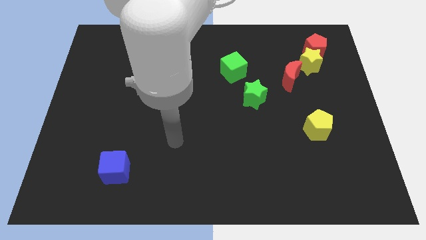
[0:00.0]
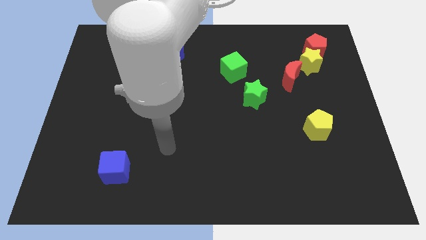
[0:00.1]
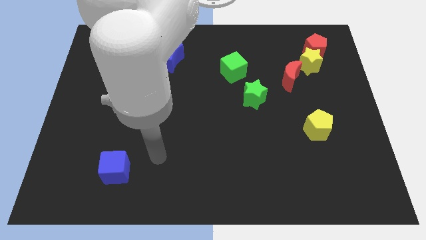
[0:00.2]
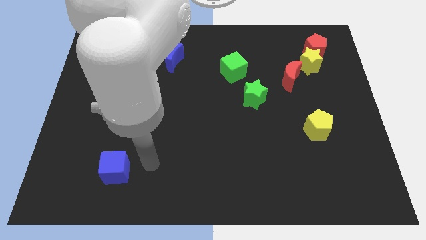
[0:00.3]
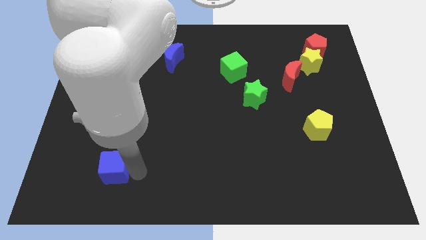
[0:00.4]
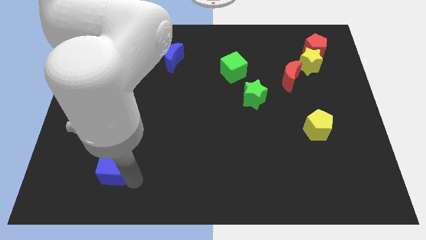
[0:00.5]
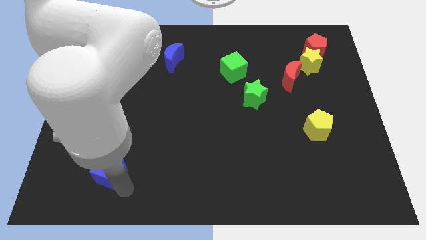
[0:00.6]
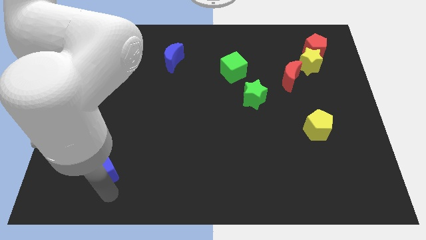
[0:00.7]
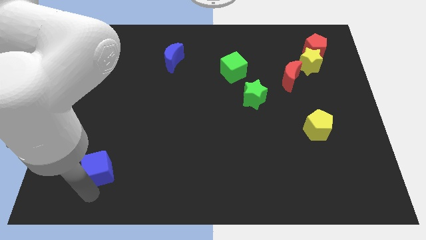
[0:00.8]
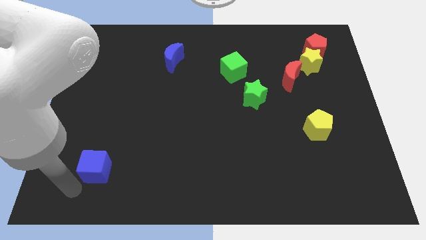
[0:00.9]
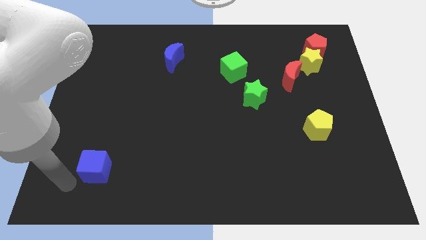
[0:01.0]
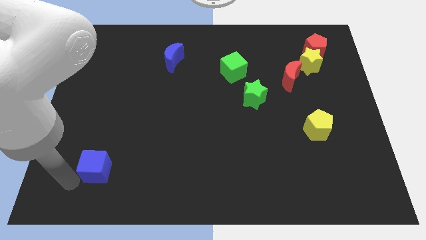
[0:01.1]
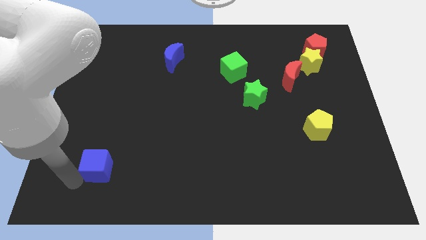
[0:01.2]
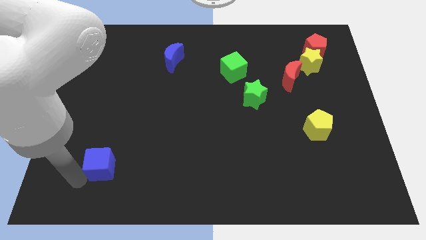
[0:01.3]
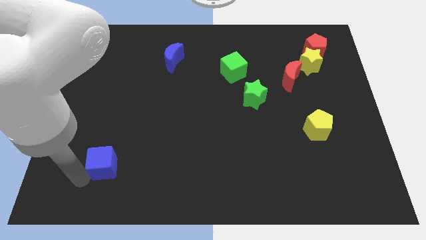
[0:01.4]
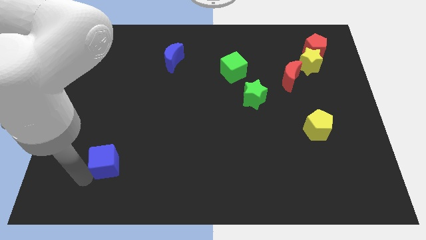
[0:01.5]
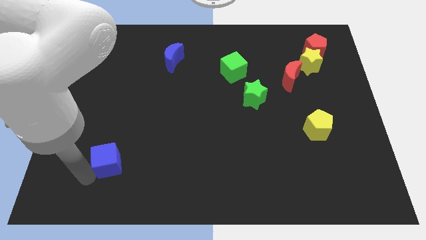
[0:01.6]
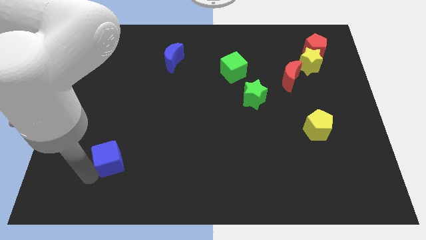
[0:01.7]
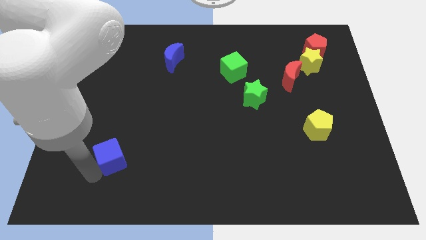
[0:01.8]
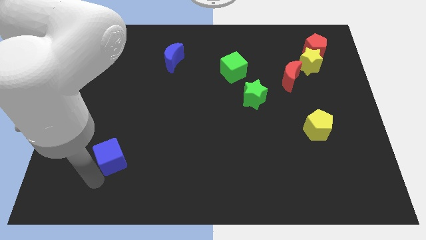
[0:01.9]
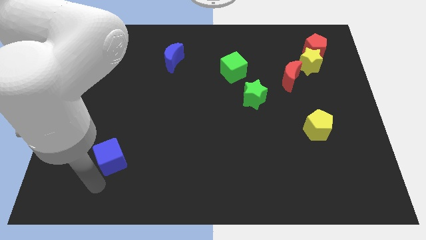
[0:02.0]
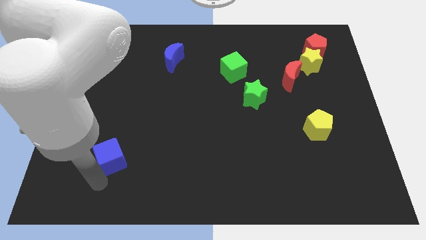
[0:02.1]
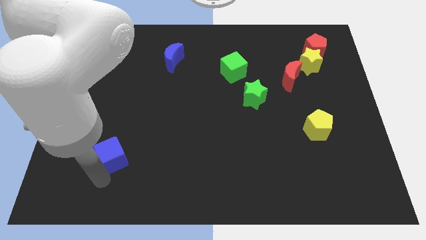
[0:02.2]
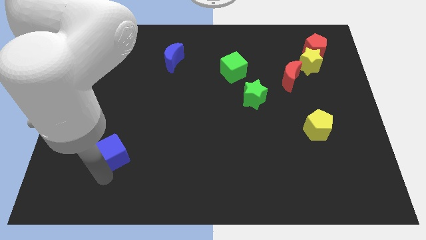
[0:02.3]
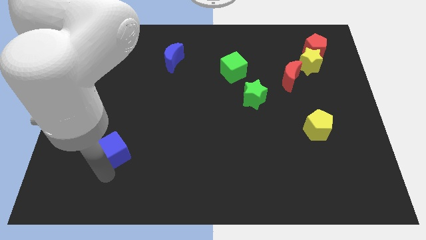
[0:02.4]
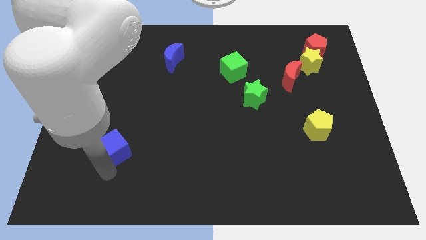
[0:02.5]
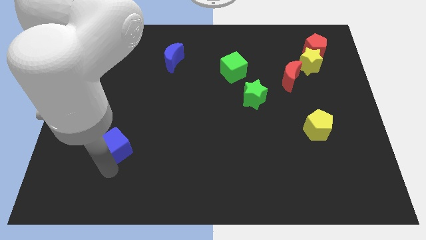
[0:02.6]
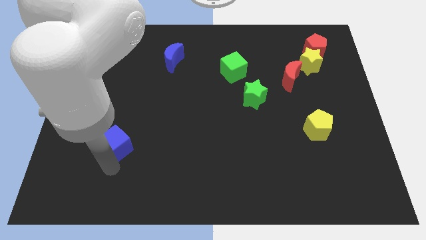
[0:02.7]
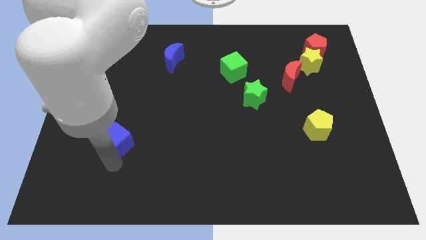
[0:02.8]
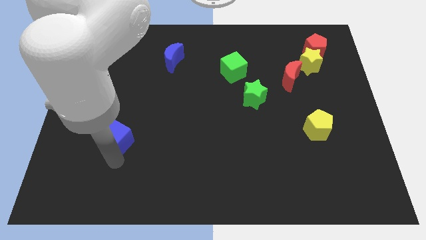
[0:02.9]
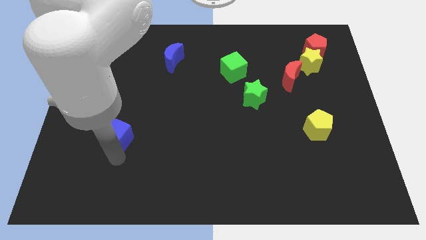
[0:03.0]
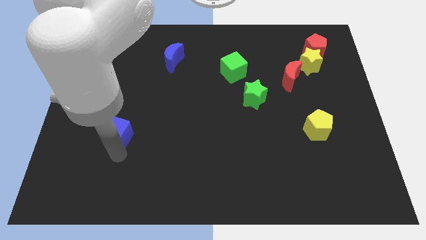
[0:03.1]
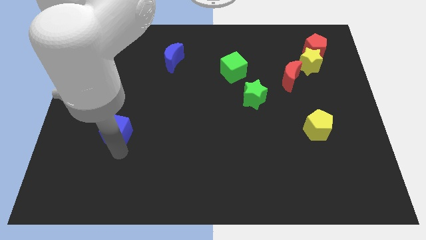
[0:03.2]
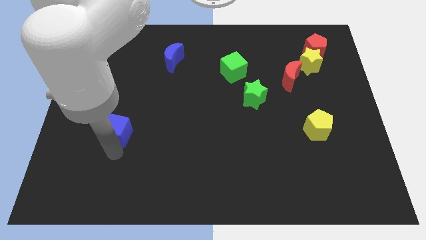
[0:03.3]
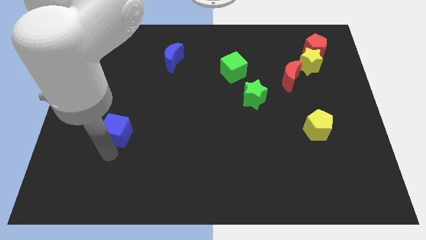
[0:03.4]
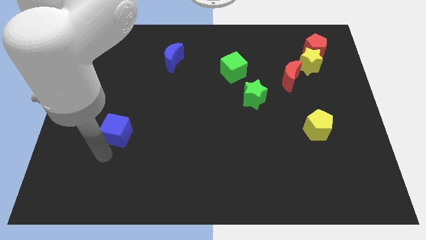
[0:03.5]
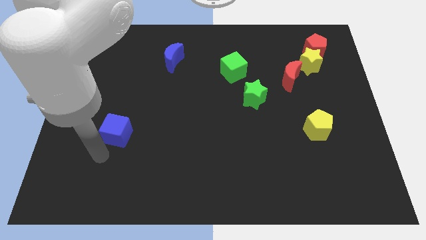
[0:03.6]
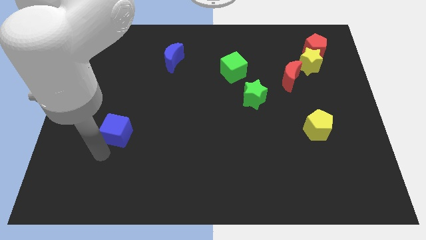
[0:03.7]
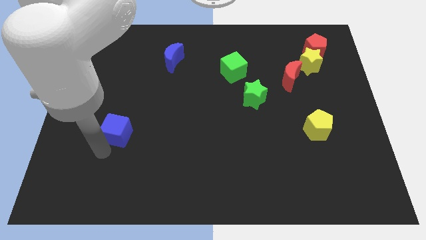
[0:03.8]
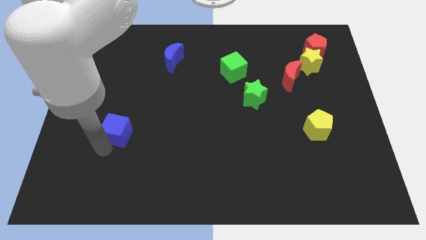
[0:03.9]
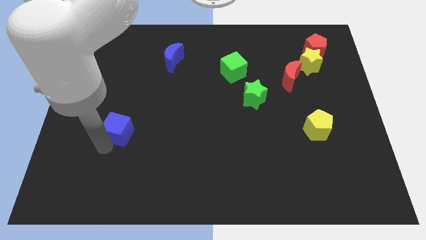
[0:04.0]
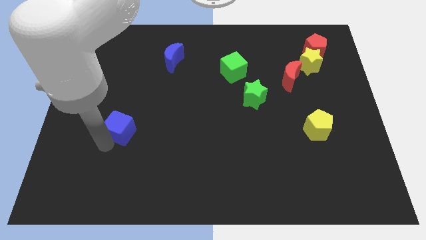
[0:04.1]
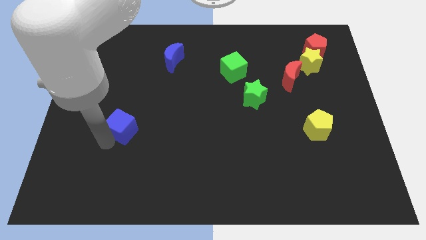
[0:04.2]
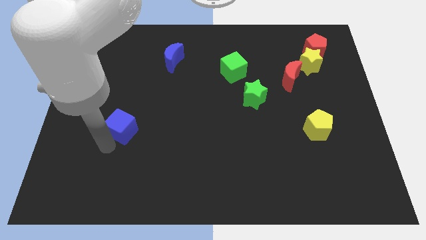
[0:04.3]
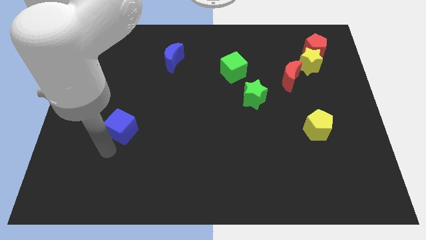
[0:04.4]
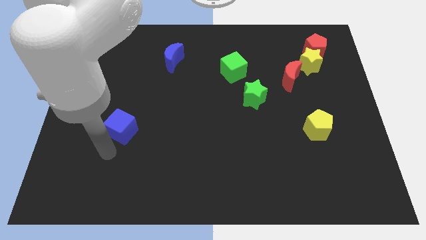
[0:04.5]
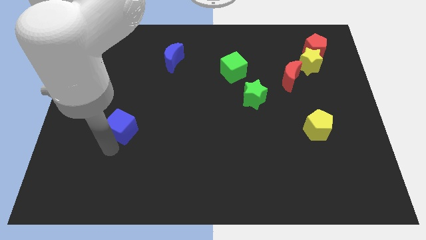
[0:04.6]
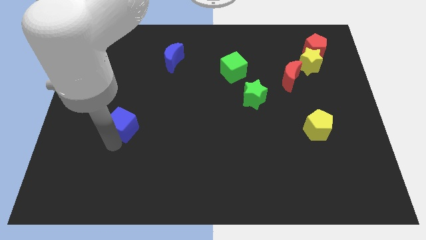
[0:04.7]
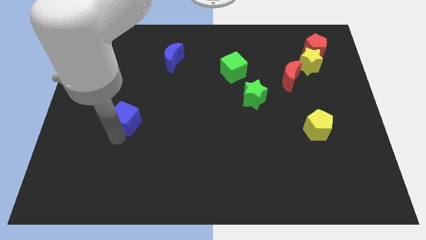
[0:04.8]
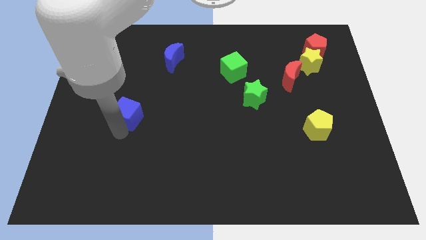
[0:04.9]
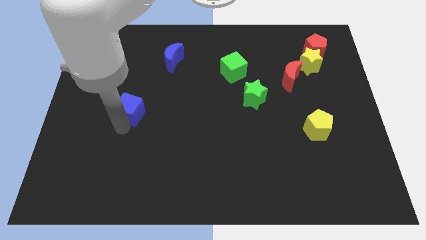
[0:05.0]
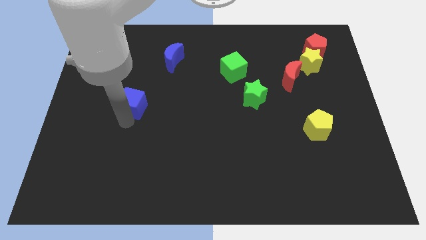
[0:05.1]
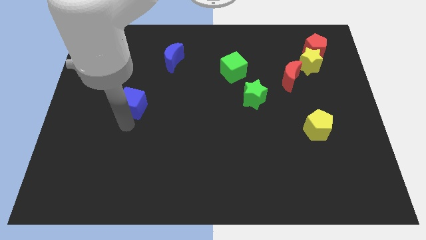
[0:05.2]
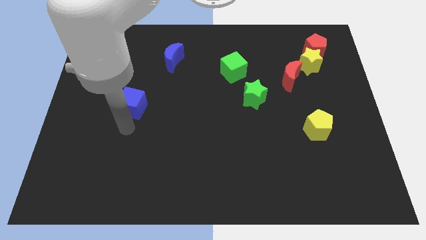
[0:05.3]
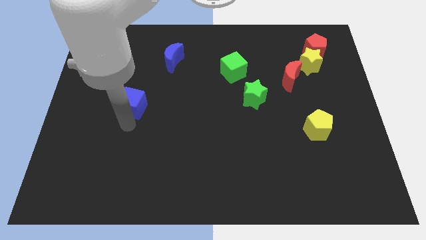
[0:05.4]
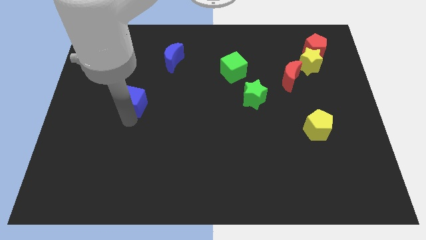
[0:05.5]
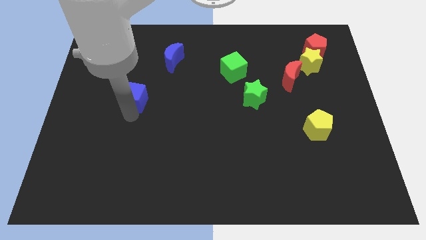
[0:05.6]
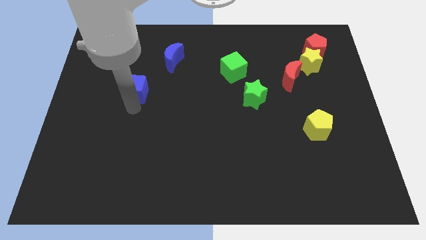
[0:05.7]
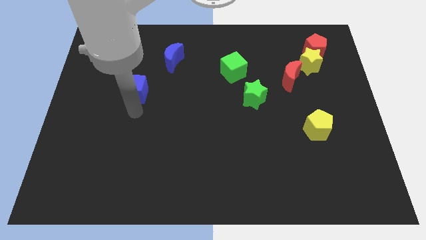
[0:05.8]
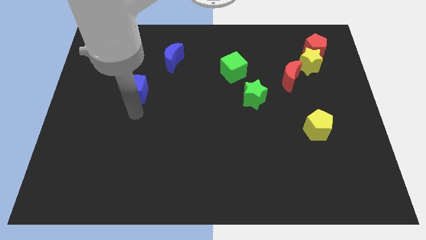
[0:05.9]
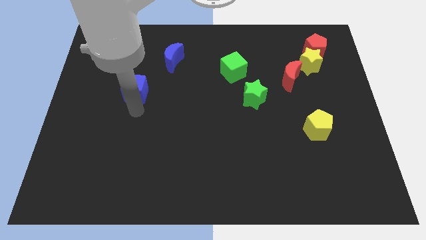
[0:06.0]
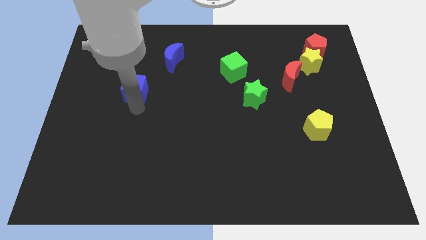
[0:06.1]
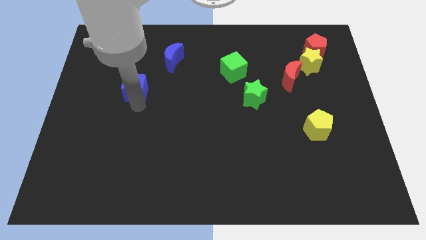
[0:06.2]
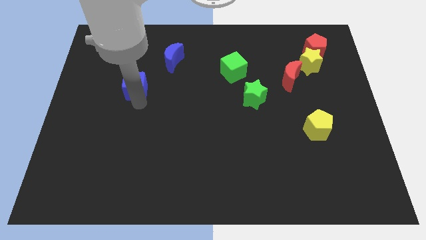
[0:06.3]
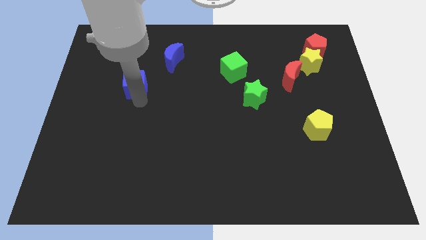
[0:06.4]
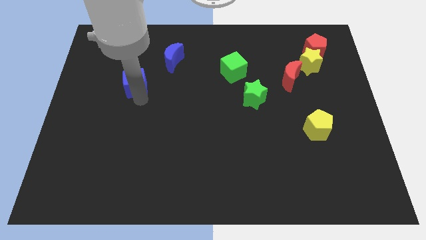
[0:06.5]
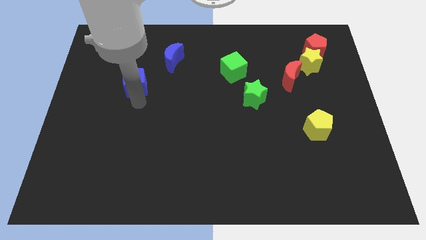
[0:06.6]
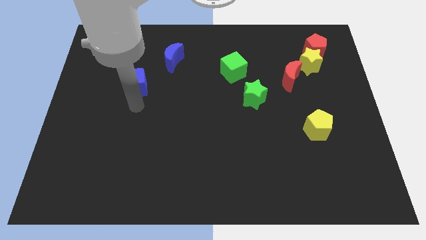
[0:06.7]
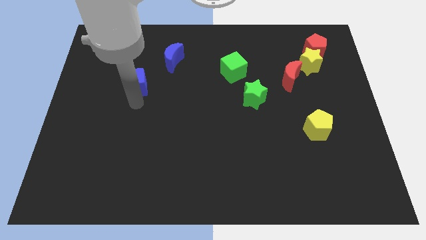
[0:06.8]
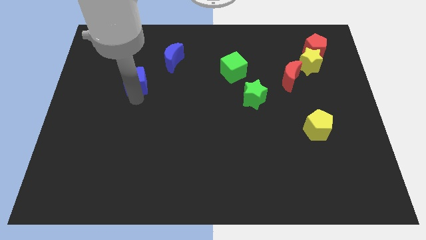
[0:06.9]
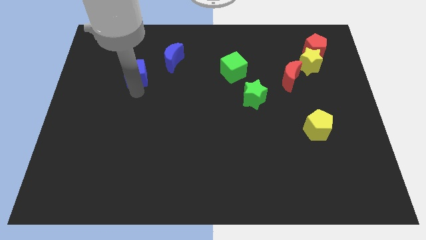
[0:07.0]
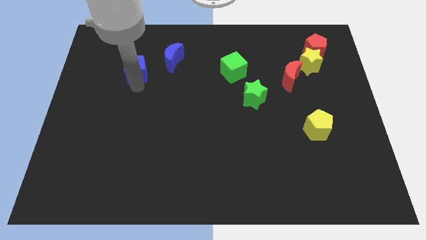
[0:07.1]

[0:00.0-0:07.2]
move the blue cube just left of the blue moon

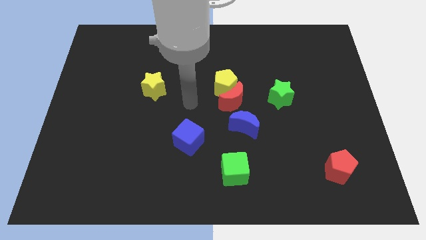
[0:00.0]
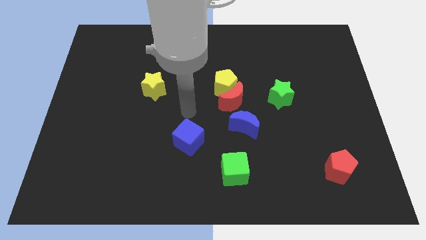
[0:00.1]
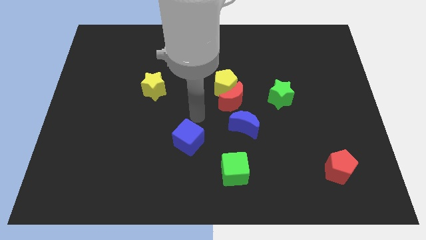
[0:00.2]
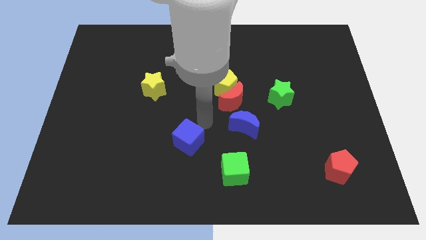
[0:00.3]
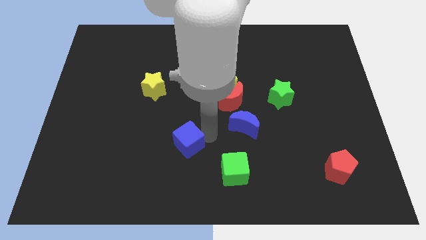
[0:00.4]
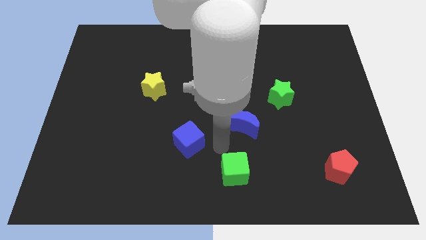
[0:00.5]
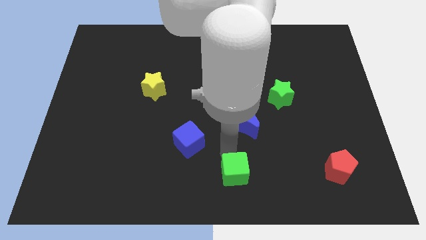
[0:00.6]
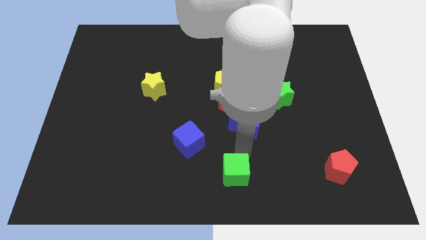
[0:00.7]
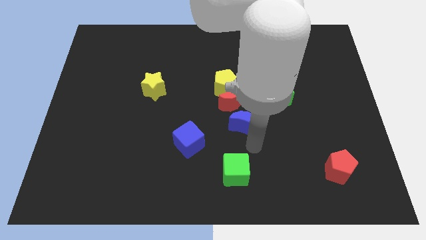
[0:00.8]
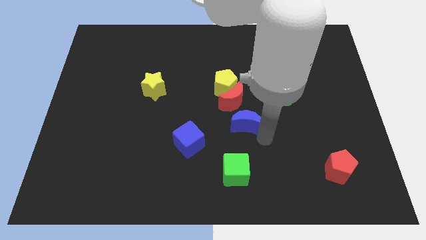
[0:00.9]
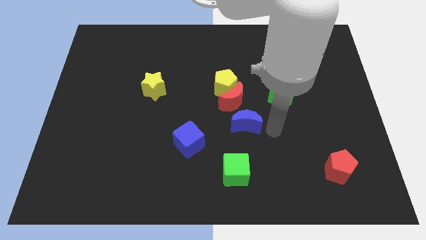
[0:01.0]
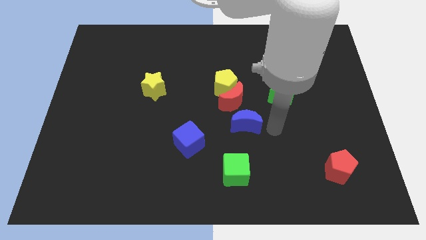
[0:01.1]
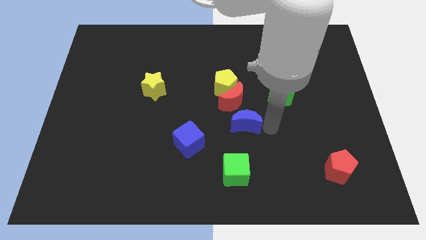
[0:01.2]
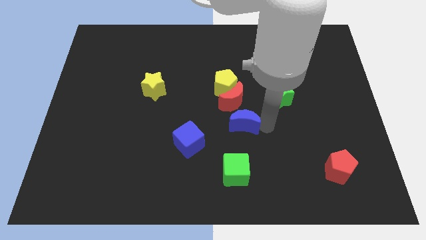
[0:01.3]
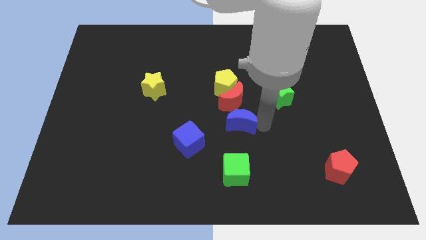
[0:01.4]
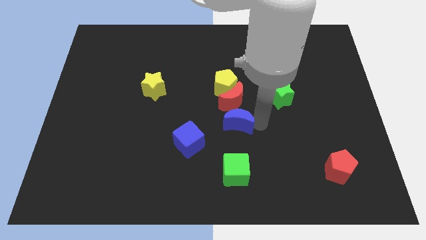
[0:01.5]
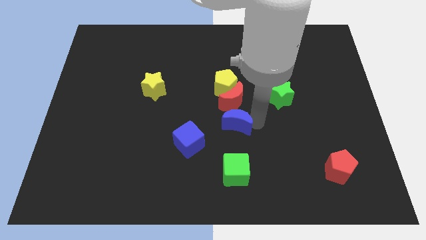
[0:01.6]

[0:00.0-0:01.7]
push the blue moon to the bottom left of the red moon
